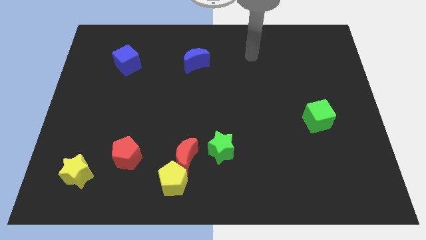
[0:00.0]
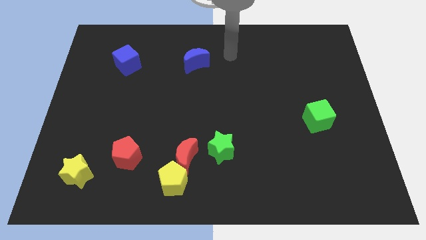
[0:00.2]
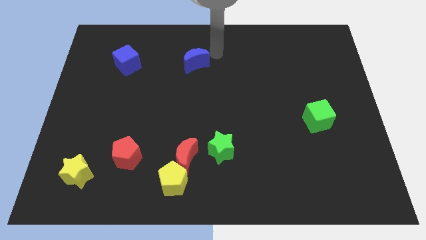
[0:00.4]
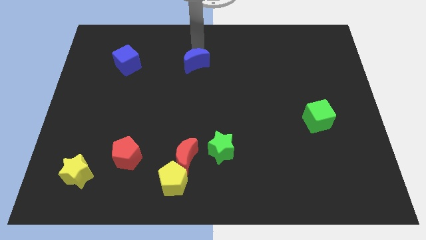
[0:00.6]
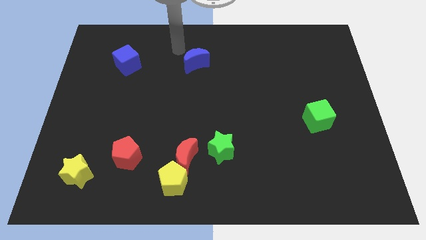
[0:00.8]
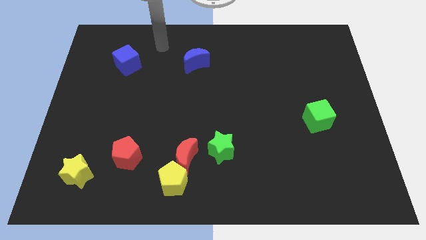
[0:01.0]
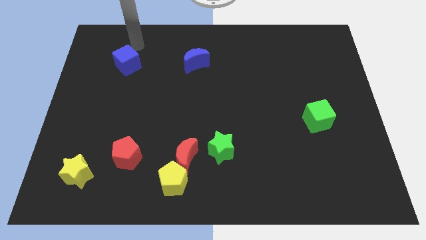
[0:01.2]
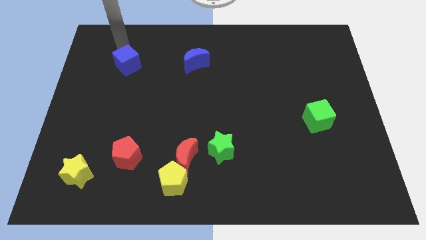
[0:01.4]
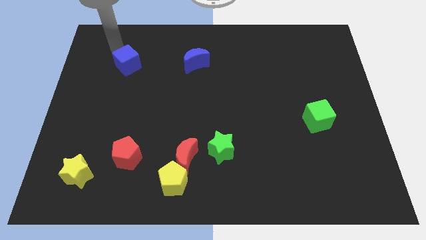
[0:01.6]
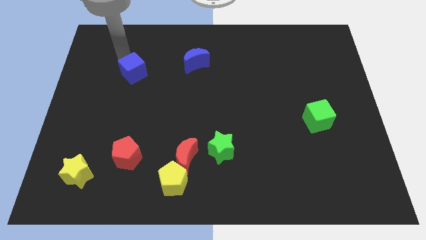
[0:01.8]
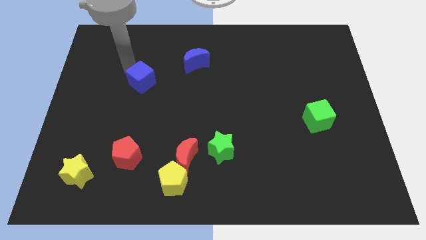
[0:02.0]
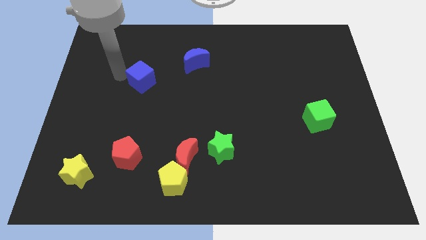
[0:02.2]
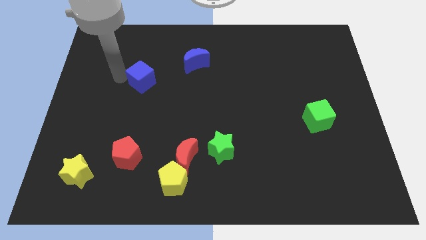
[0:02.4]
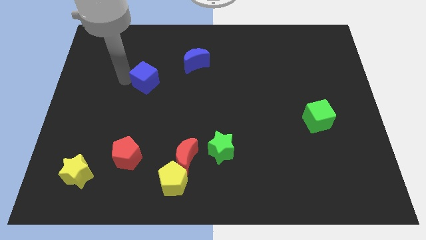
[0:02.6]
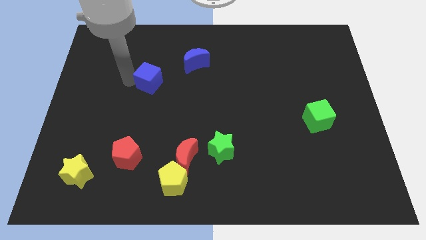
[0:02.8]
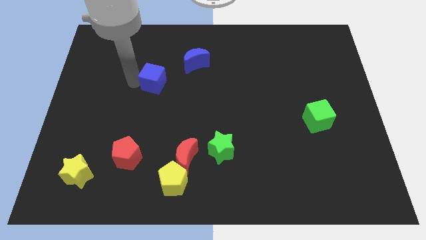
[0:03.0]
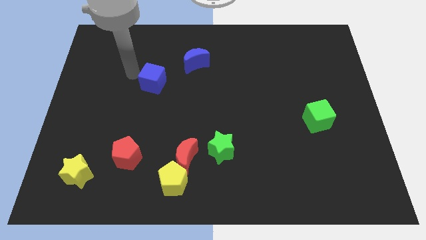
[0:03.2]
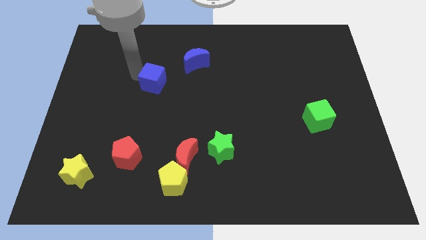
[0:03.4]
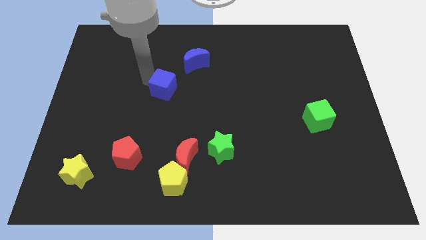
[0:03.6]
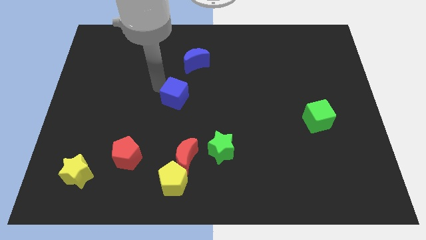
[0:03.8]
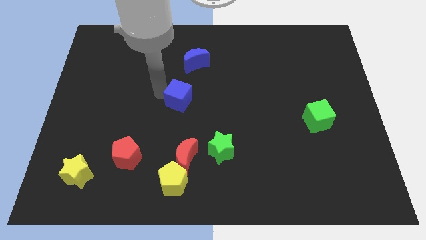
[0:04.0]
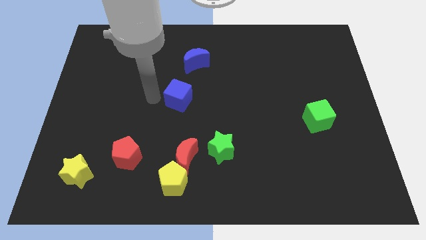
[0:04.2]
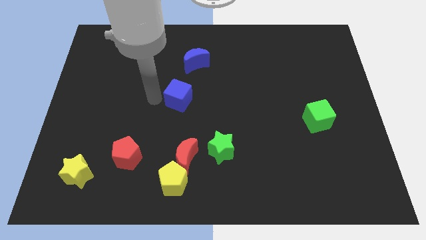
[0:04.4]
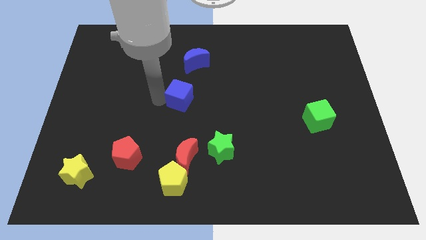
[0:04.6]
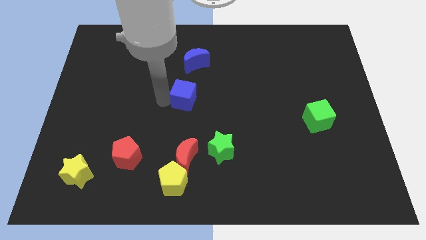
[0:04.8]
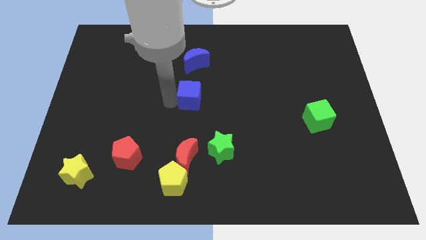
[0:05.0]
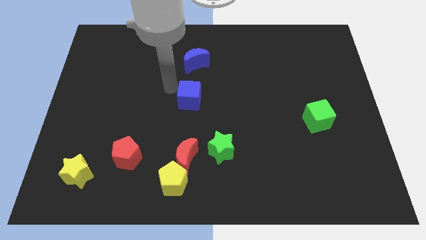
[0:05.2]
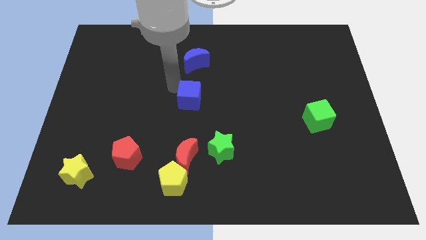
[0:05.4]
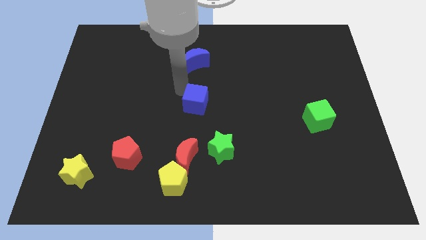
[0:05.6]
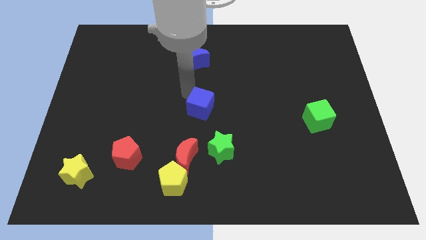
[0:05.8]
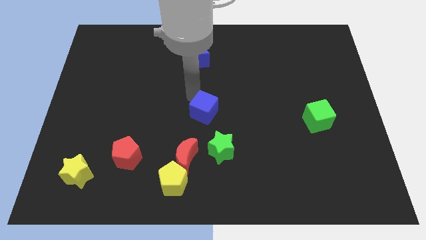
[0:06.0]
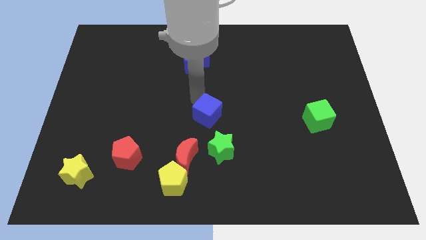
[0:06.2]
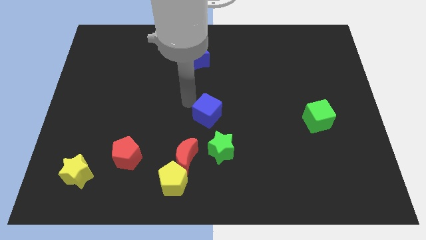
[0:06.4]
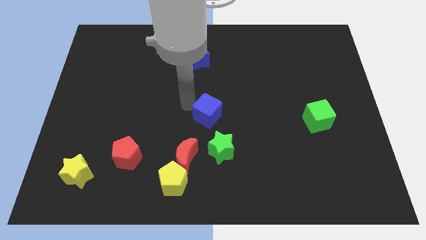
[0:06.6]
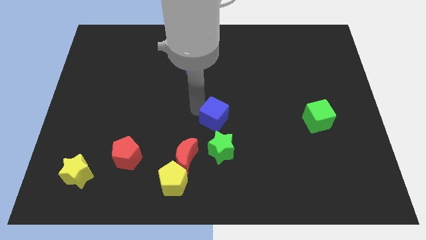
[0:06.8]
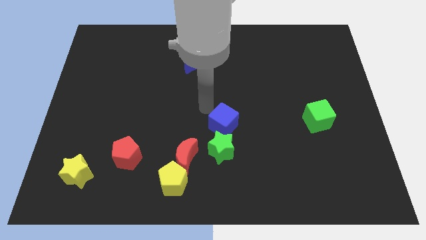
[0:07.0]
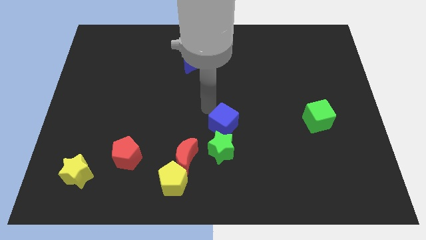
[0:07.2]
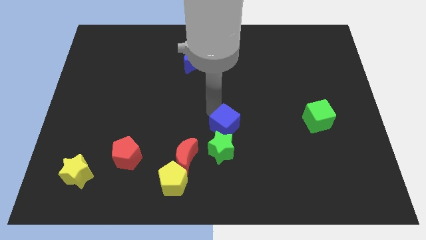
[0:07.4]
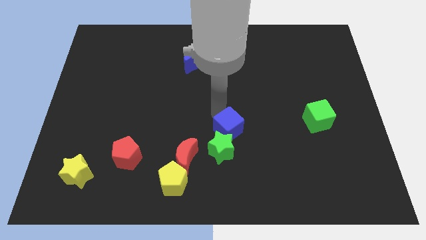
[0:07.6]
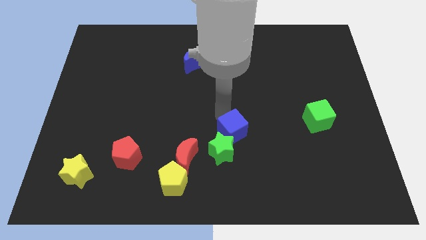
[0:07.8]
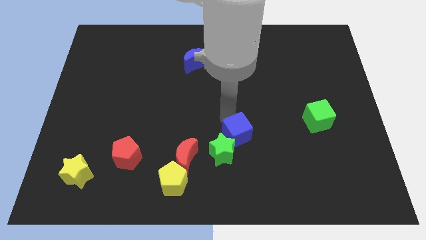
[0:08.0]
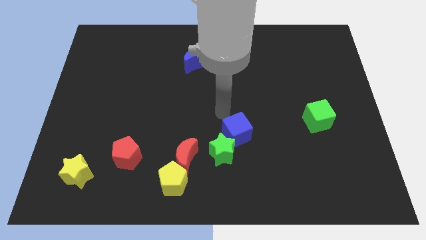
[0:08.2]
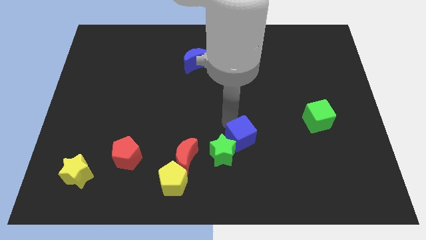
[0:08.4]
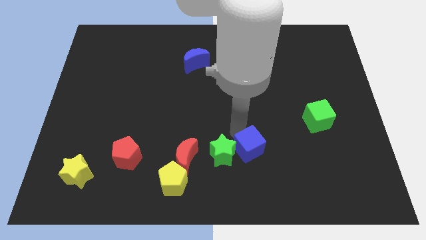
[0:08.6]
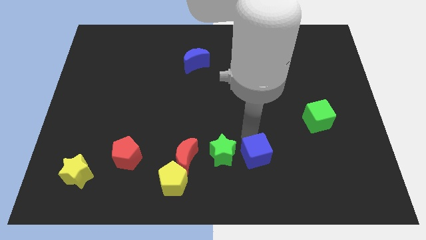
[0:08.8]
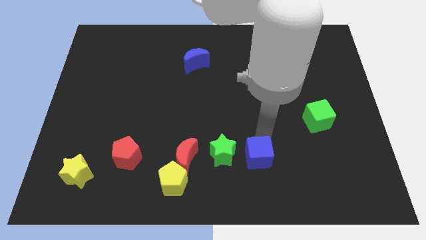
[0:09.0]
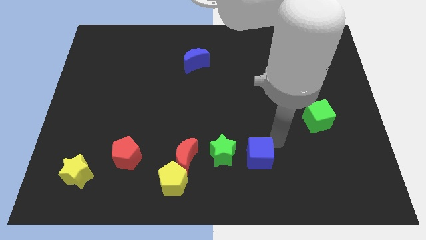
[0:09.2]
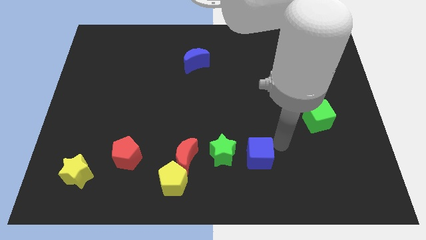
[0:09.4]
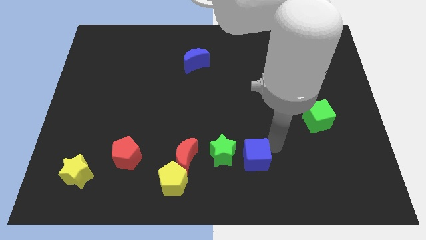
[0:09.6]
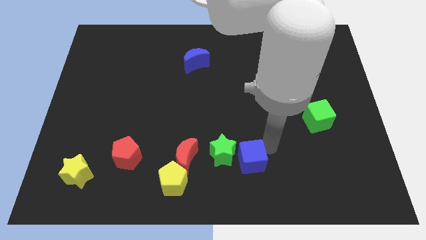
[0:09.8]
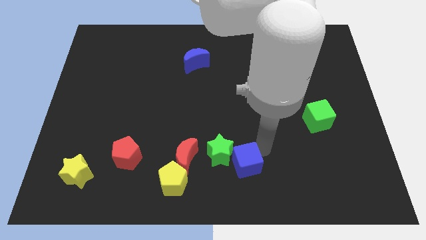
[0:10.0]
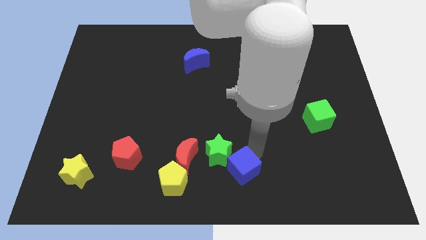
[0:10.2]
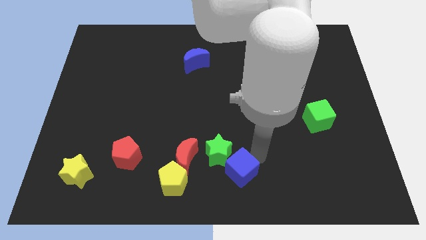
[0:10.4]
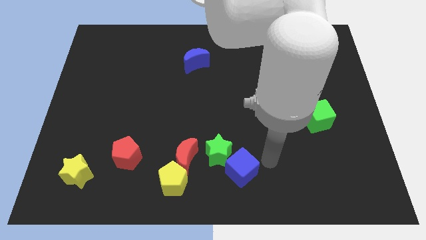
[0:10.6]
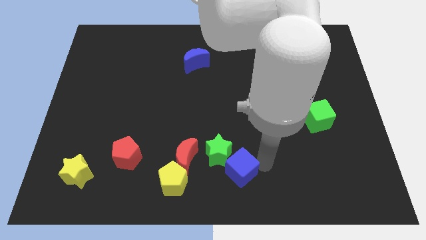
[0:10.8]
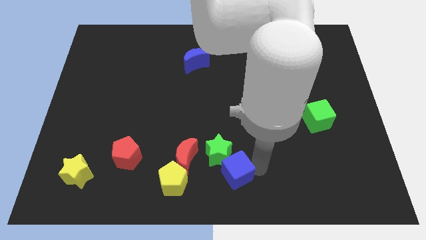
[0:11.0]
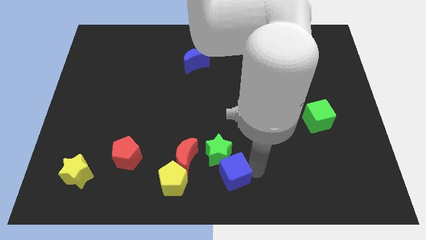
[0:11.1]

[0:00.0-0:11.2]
put the blue cube to the bottom right of the red moon

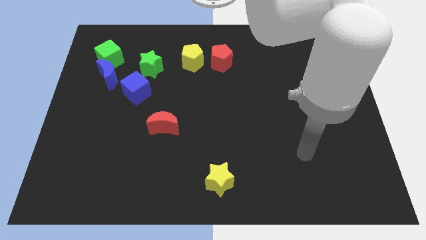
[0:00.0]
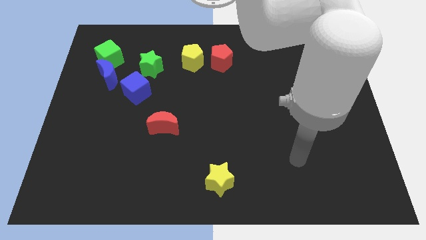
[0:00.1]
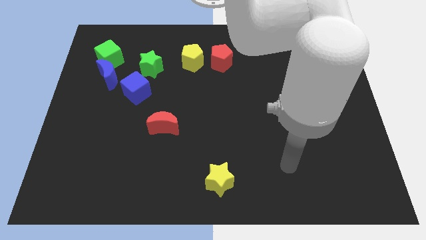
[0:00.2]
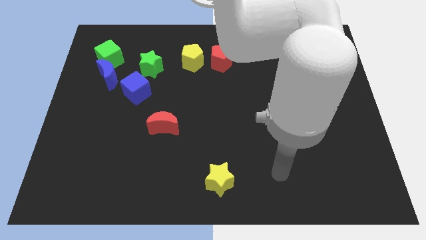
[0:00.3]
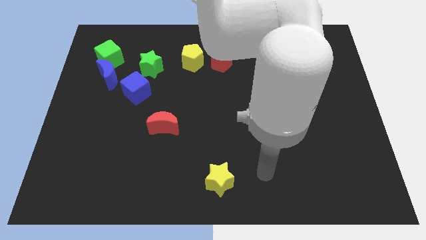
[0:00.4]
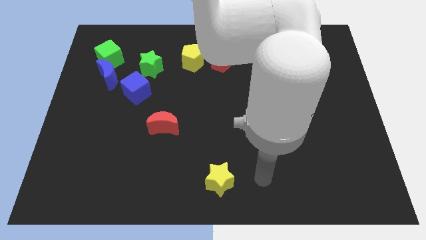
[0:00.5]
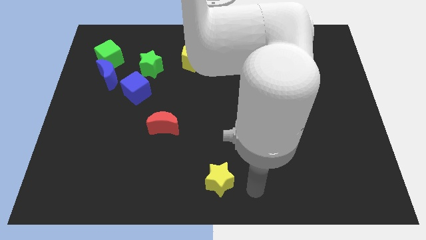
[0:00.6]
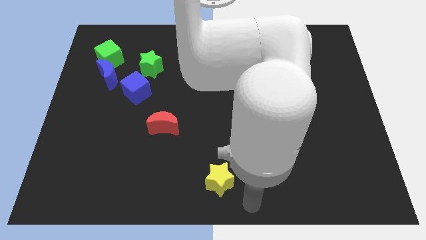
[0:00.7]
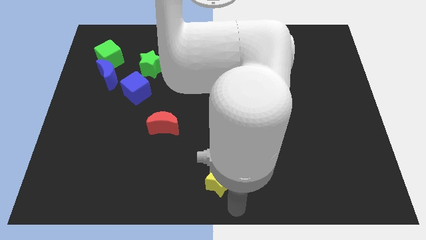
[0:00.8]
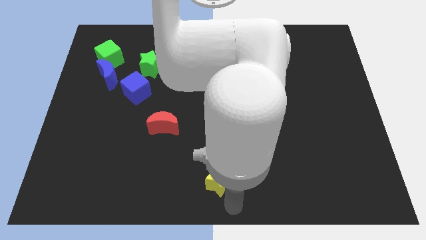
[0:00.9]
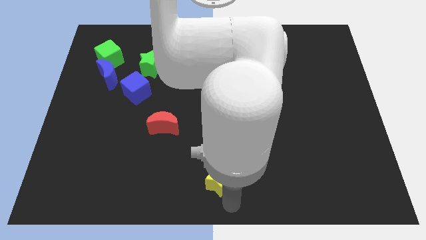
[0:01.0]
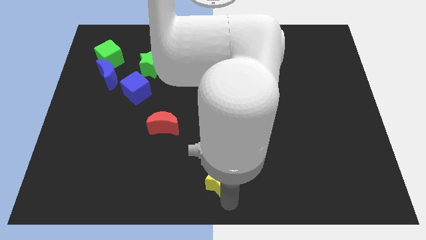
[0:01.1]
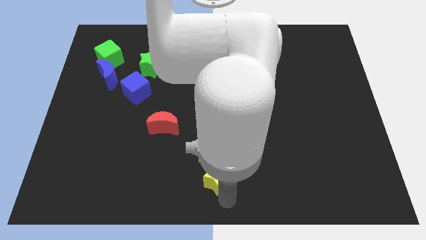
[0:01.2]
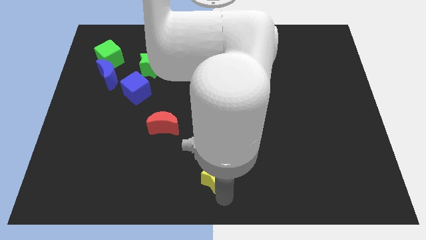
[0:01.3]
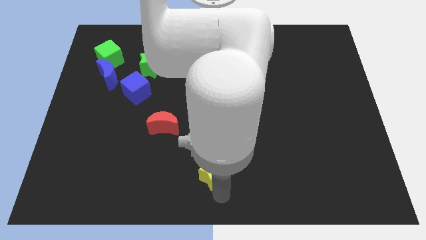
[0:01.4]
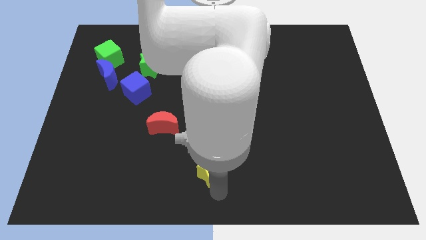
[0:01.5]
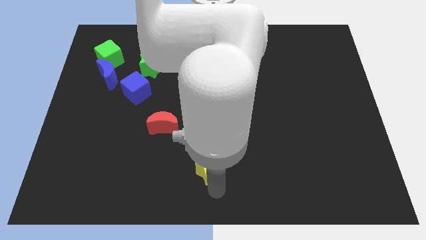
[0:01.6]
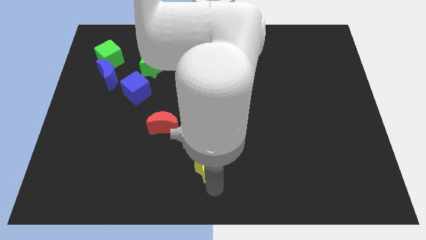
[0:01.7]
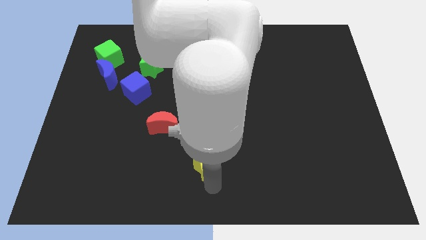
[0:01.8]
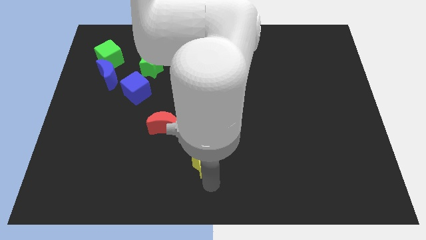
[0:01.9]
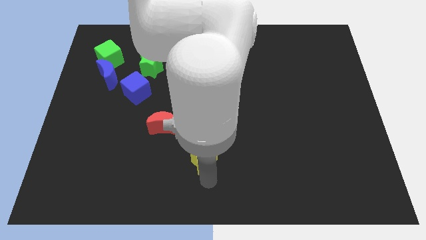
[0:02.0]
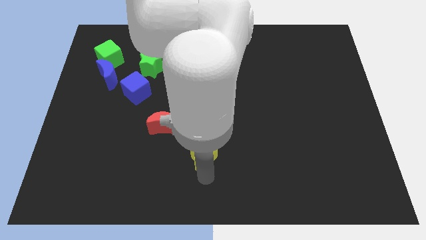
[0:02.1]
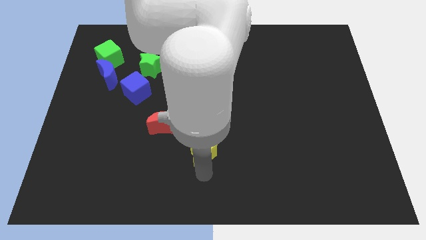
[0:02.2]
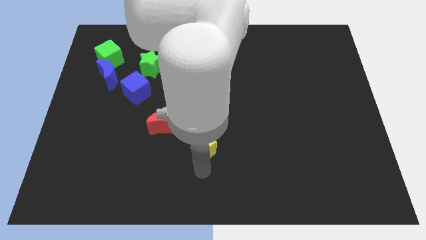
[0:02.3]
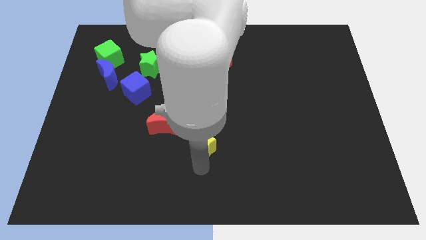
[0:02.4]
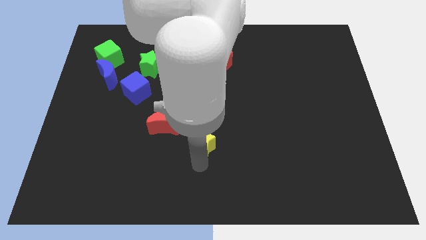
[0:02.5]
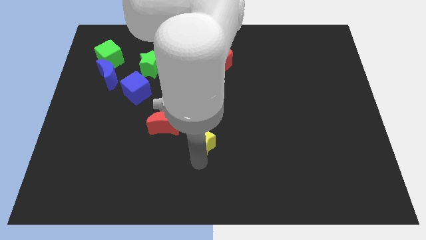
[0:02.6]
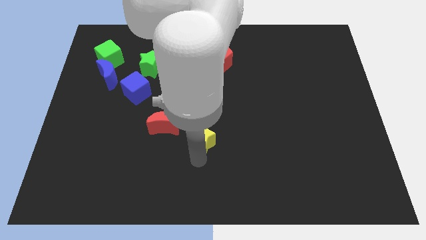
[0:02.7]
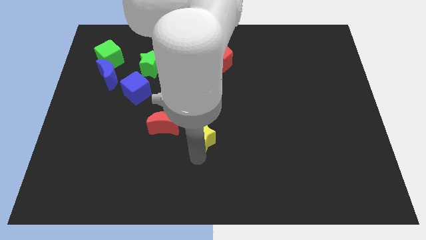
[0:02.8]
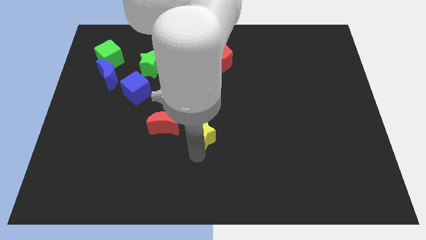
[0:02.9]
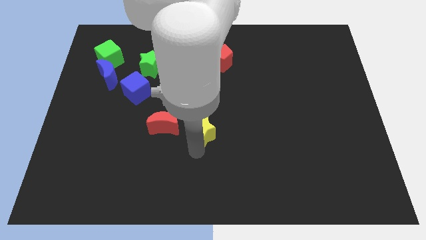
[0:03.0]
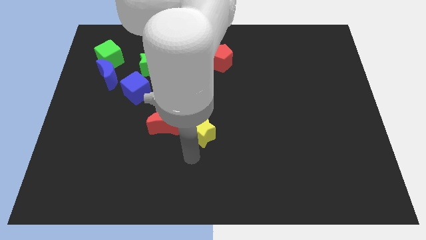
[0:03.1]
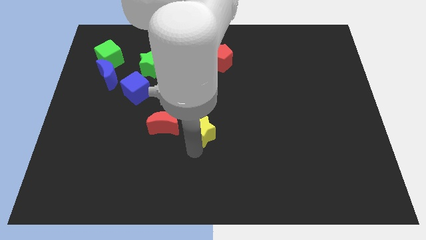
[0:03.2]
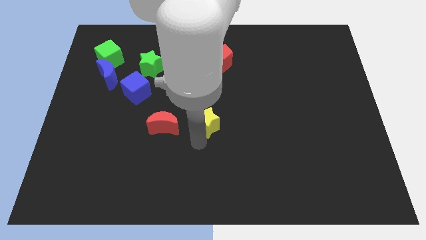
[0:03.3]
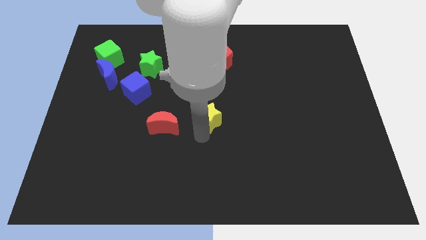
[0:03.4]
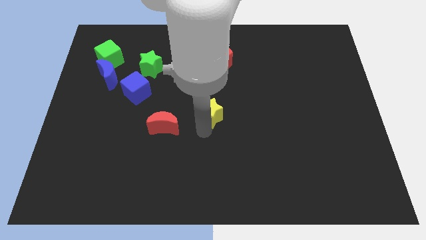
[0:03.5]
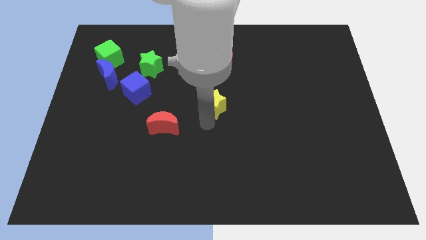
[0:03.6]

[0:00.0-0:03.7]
push the yellow star to the bottom of the red pentagon
